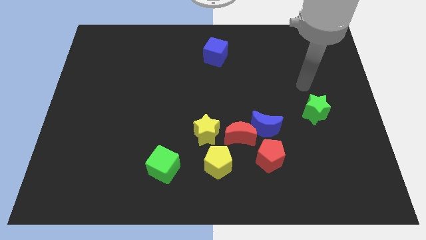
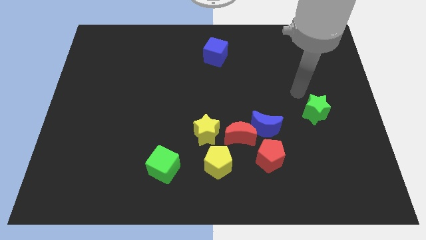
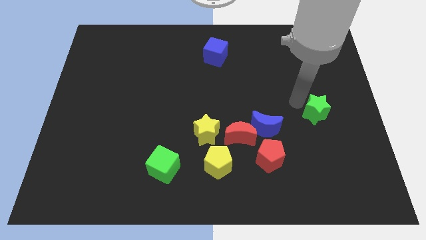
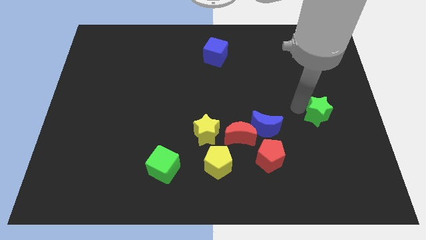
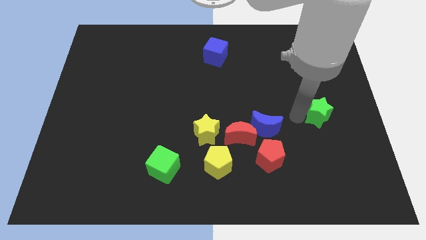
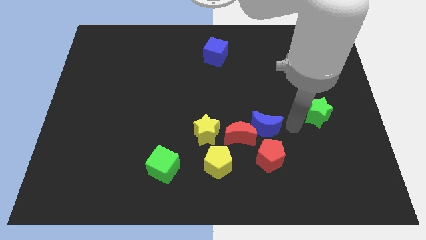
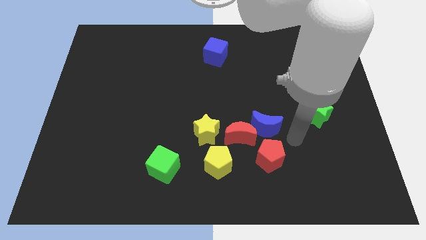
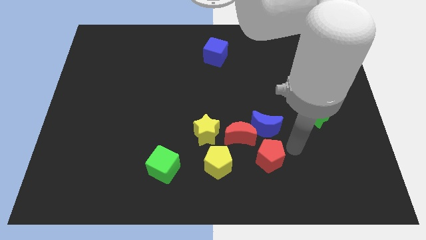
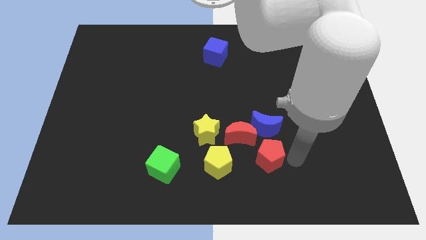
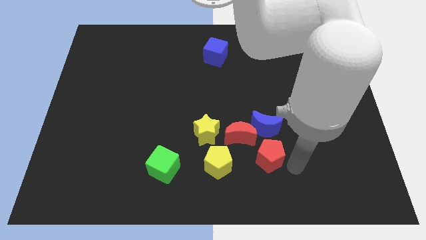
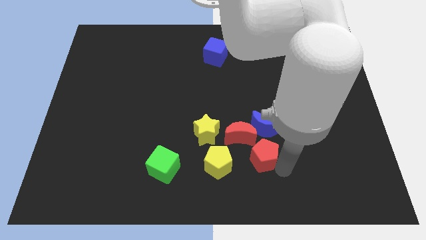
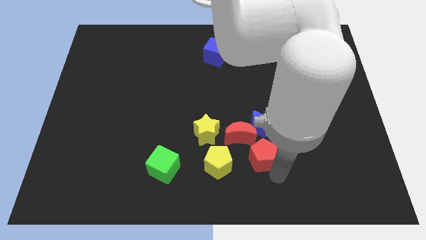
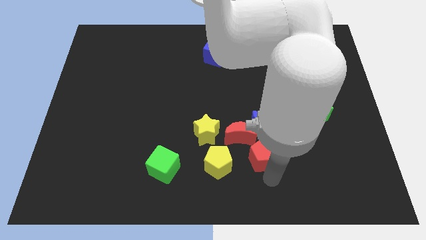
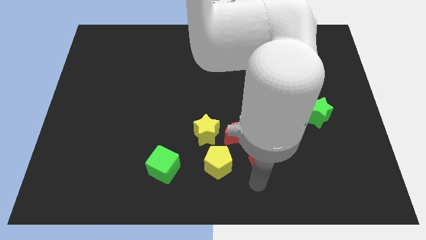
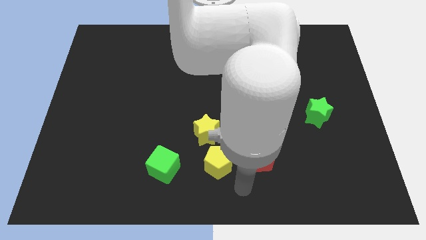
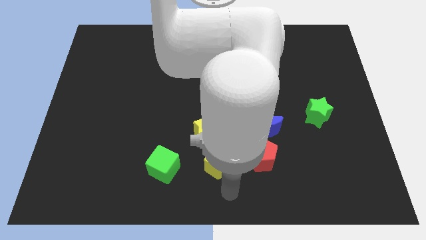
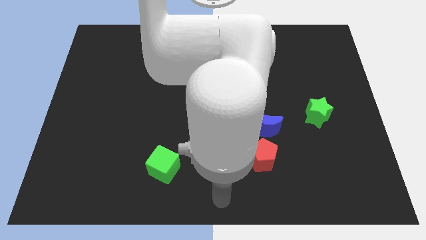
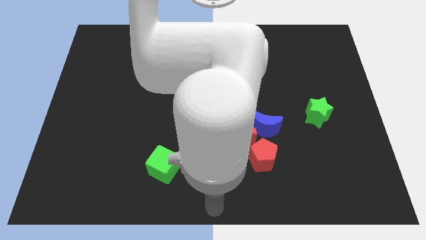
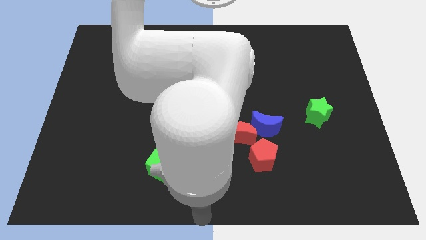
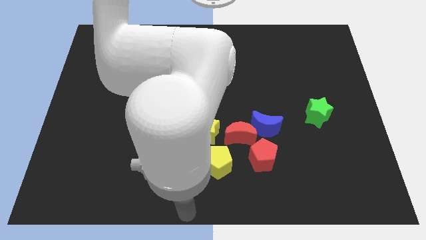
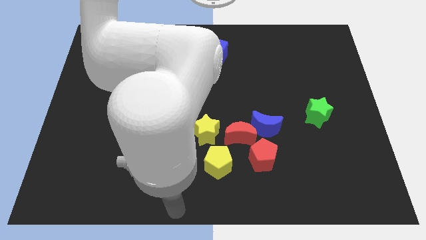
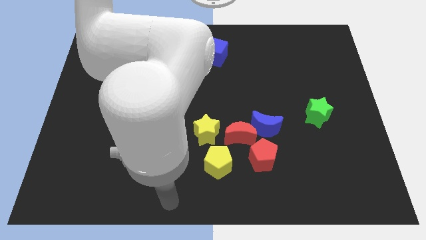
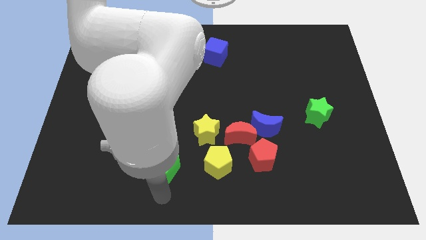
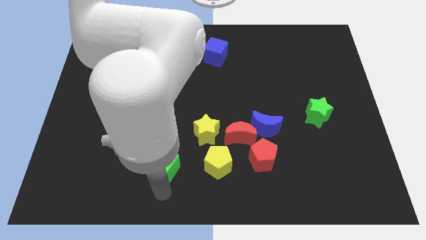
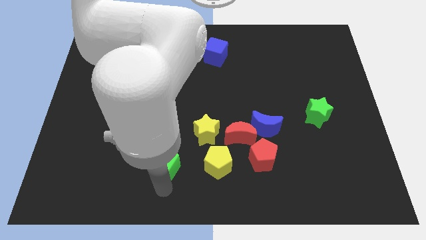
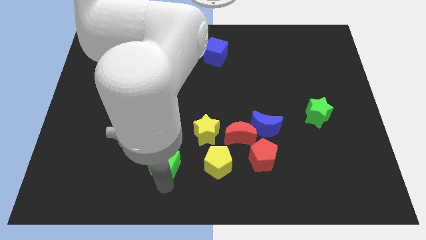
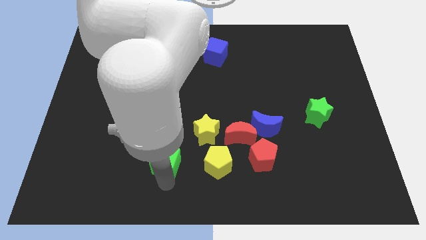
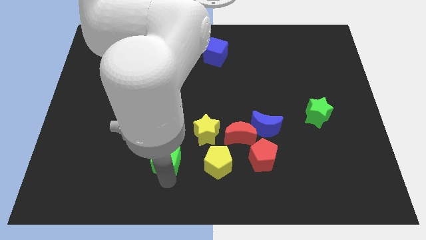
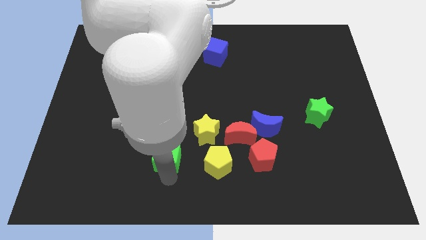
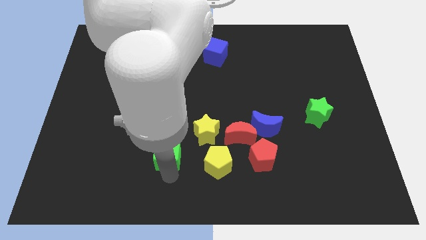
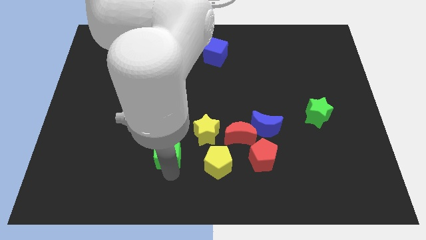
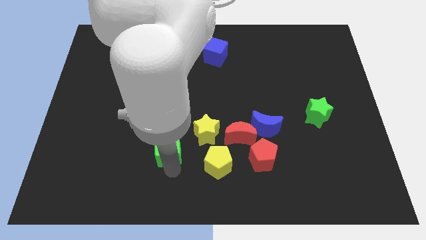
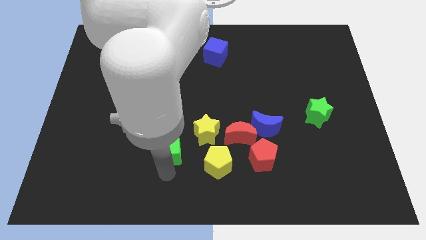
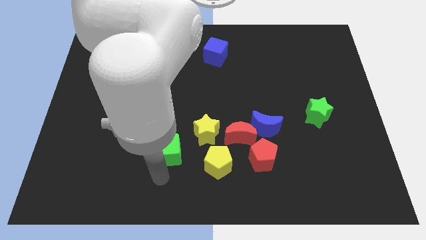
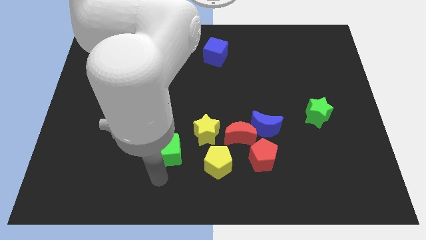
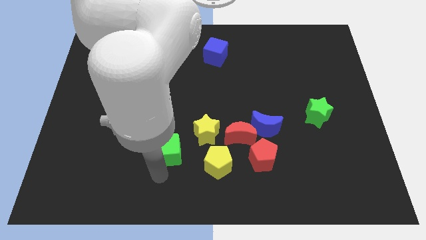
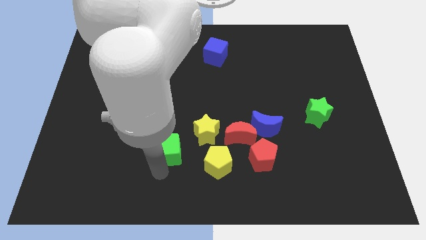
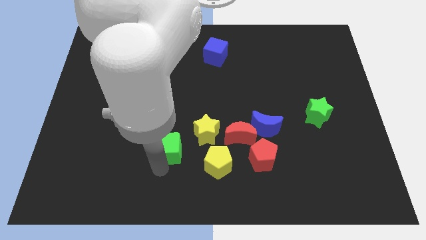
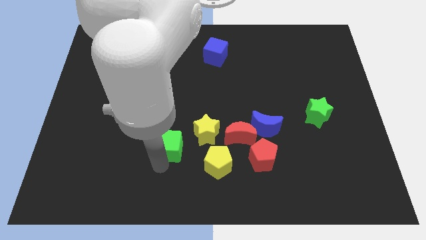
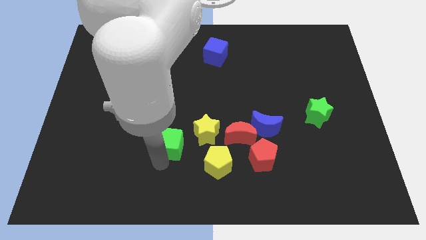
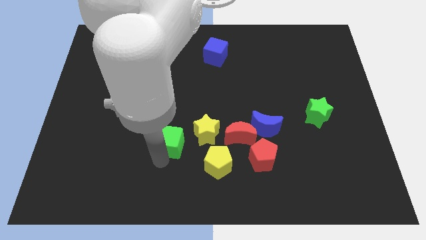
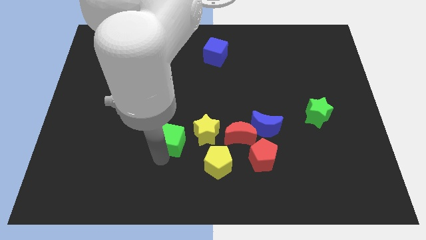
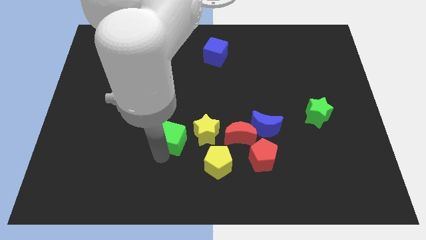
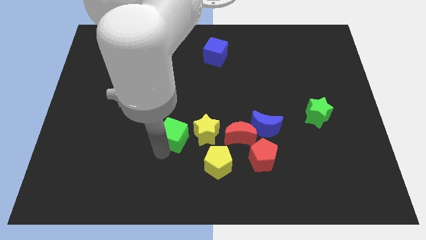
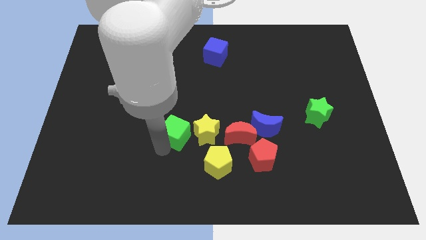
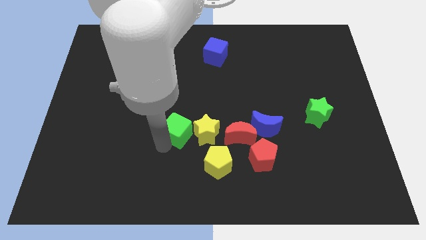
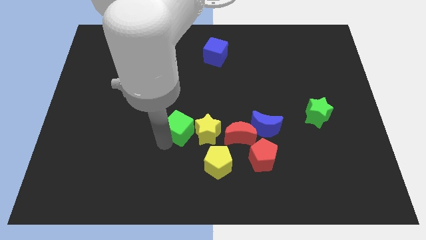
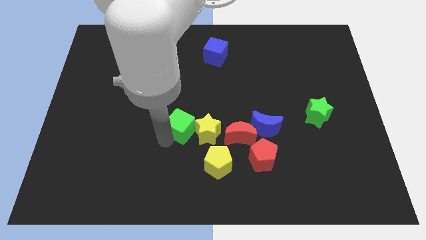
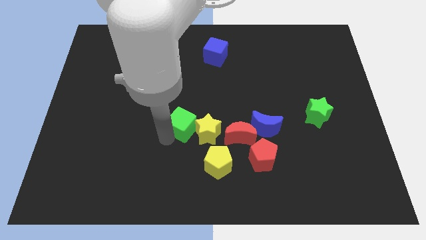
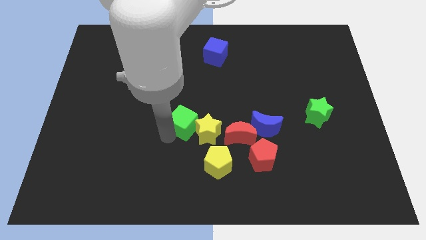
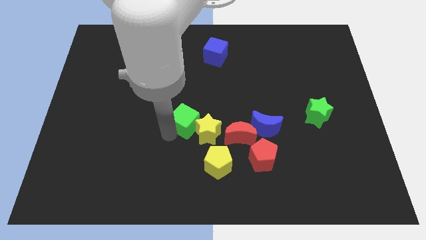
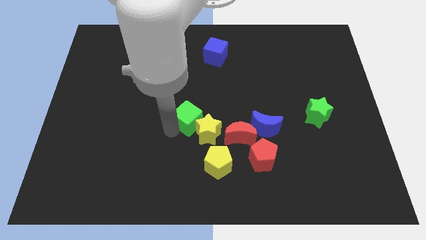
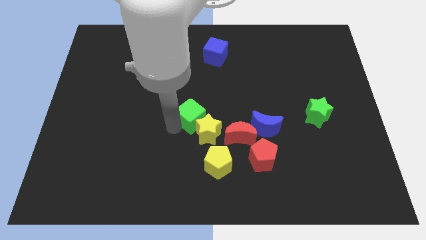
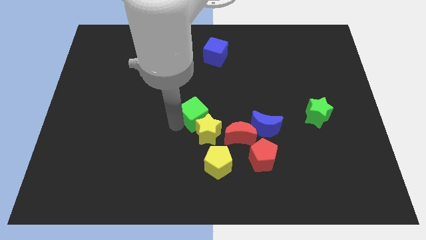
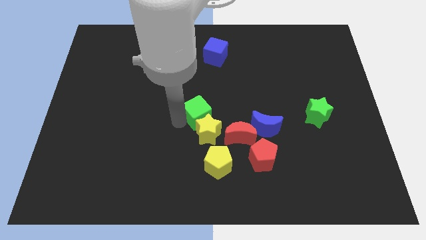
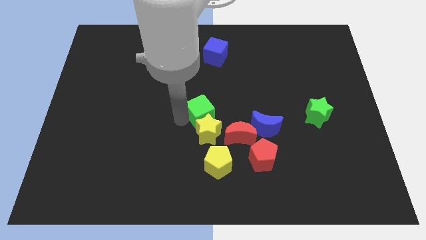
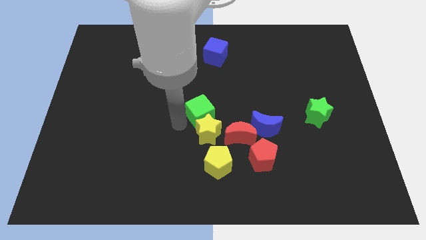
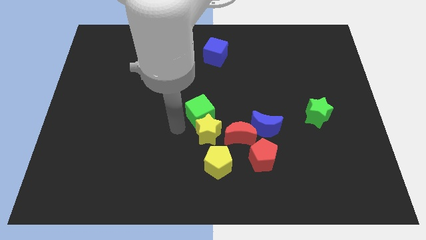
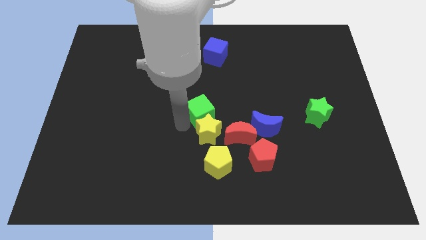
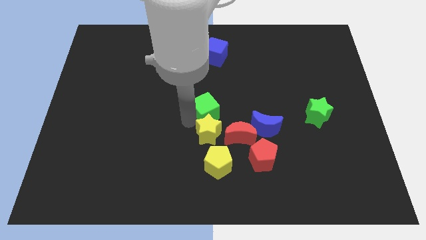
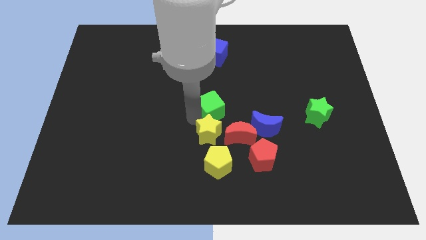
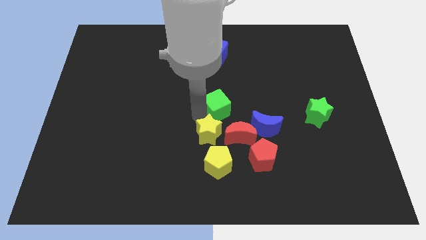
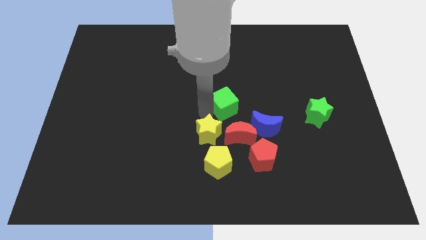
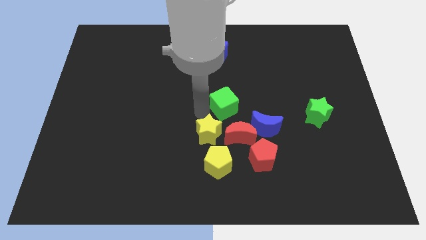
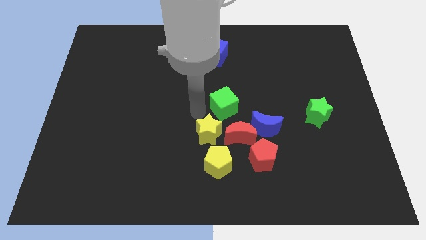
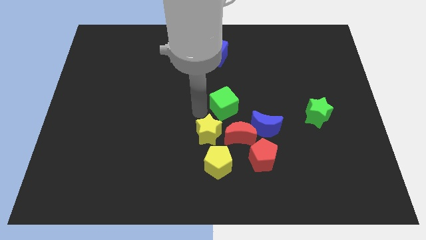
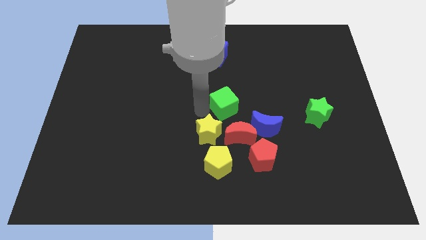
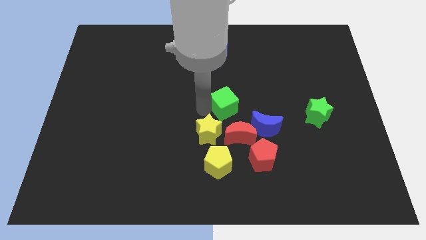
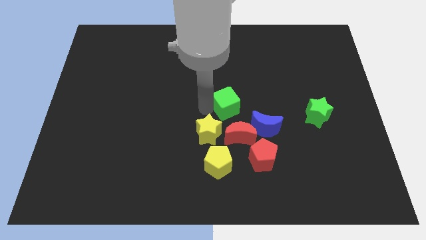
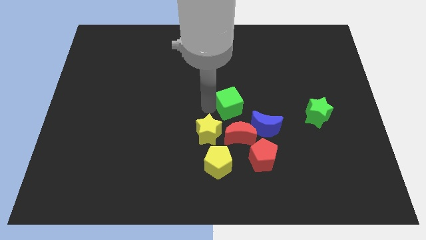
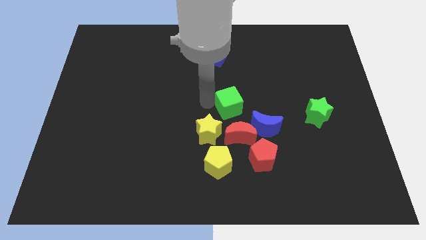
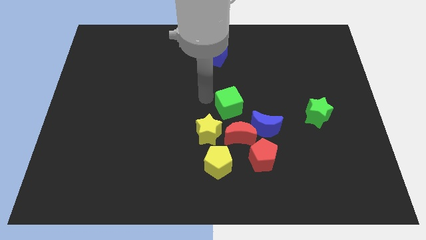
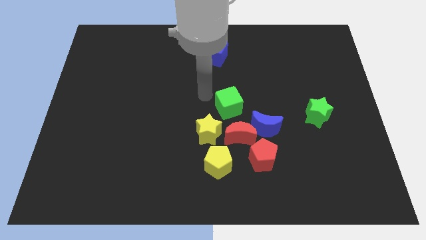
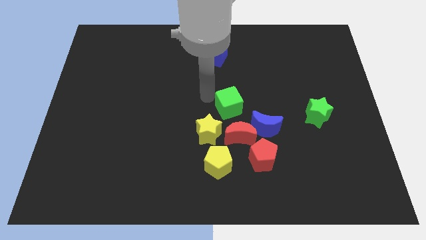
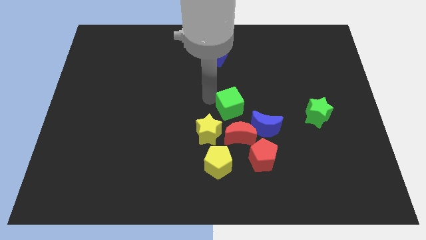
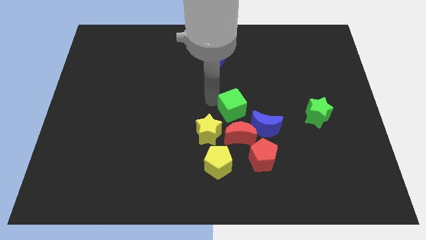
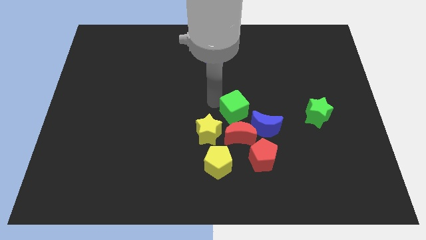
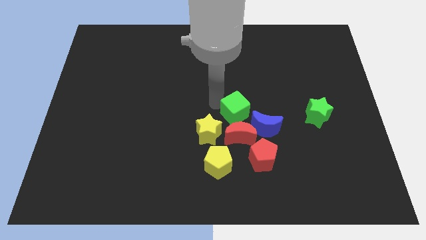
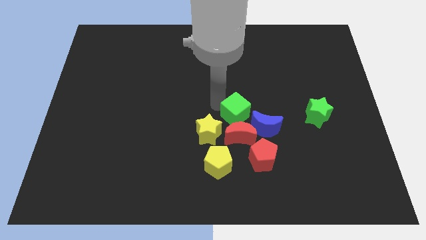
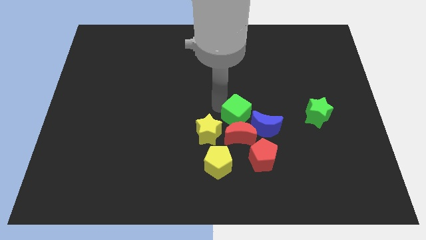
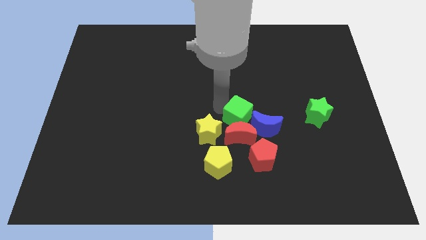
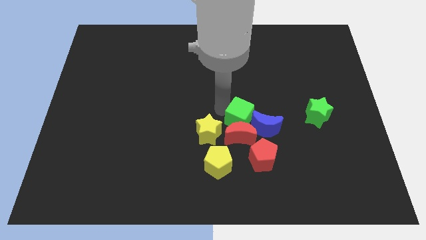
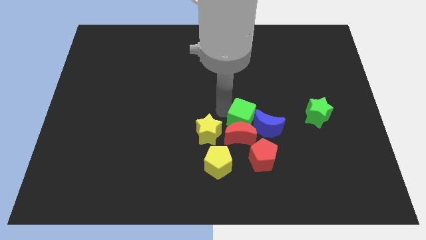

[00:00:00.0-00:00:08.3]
put the green cube close to the blue moon
